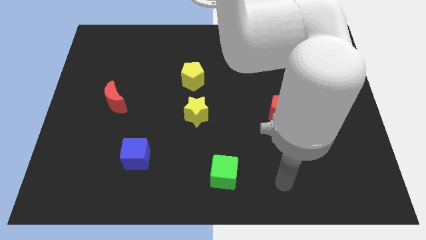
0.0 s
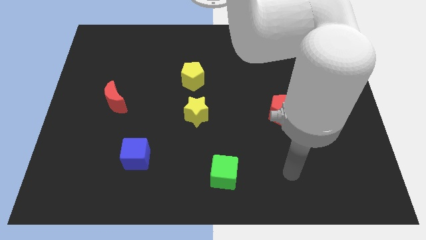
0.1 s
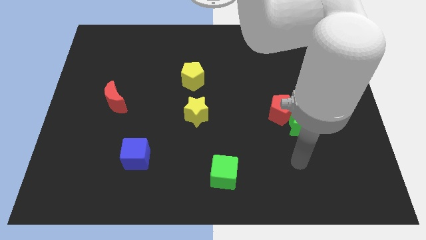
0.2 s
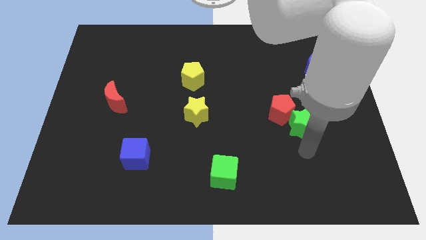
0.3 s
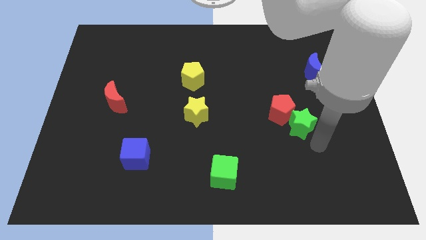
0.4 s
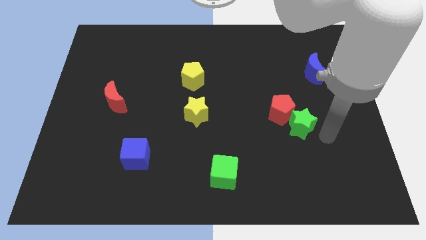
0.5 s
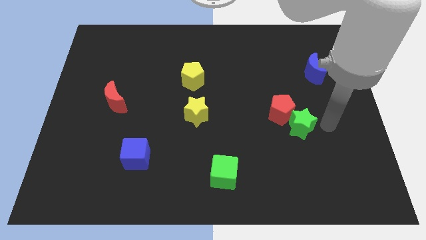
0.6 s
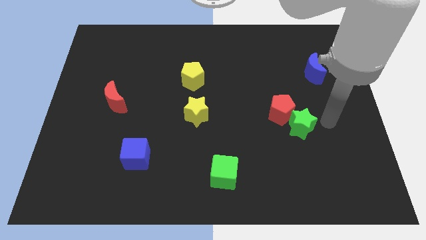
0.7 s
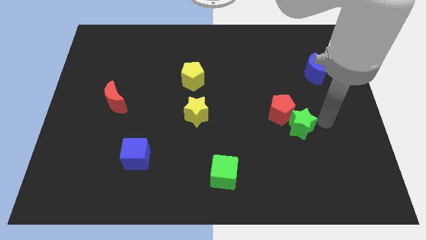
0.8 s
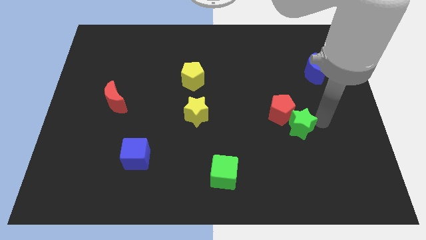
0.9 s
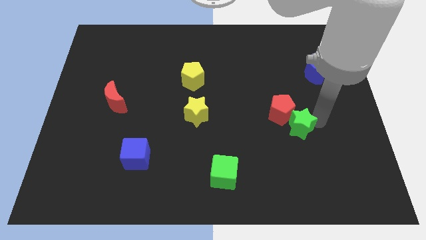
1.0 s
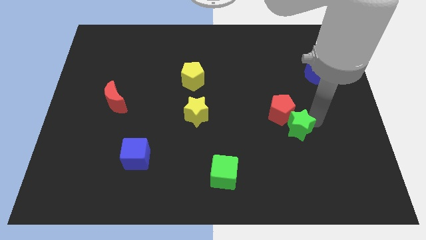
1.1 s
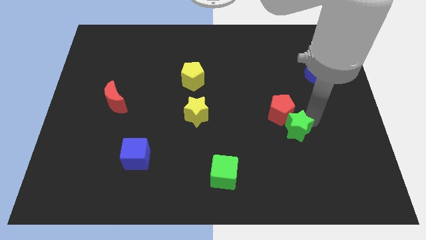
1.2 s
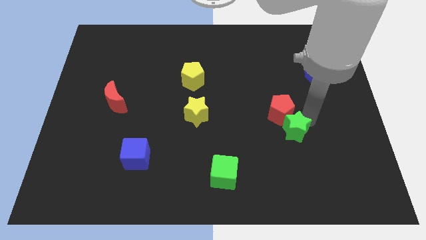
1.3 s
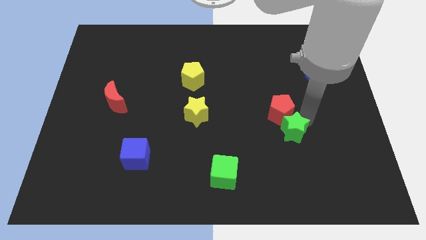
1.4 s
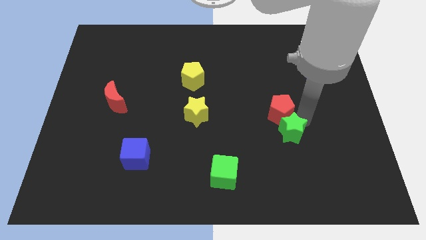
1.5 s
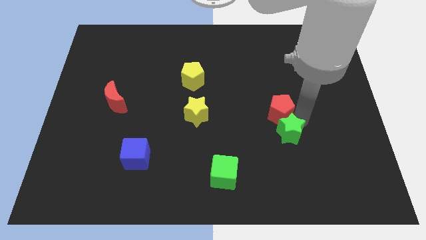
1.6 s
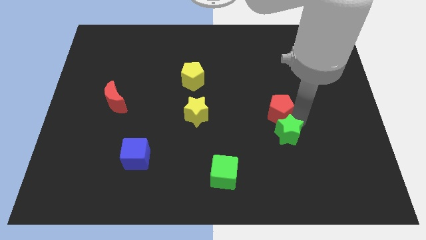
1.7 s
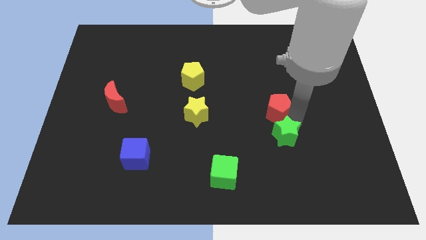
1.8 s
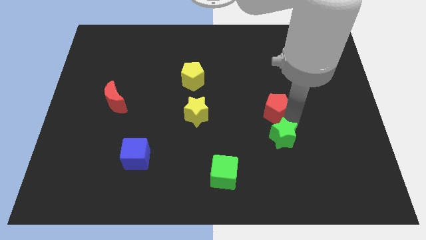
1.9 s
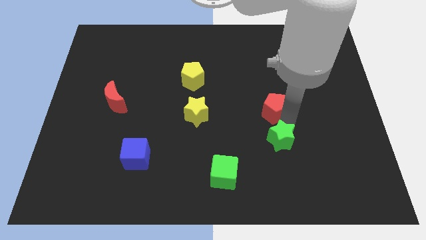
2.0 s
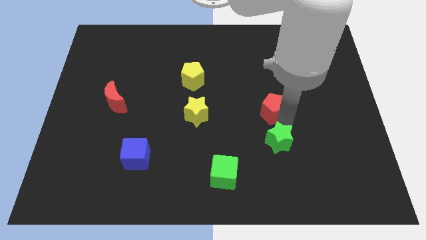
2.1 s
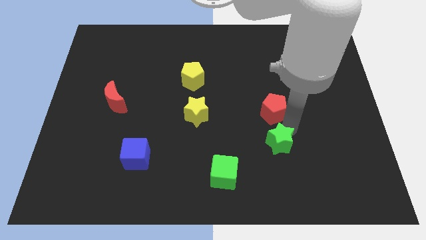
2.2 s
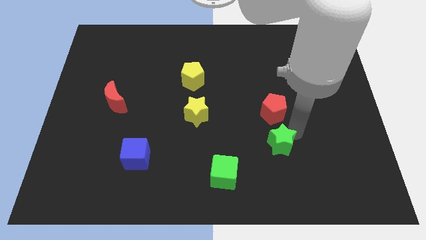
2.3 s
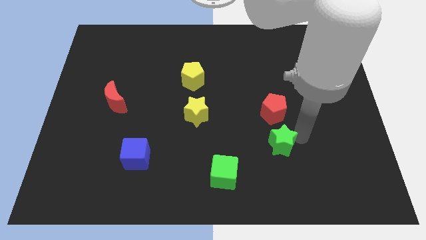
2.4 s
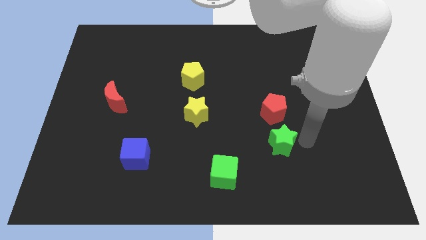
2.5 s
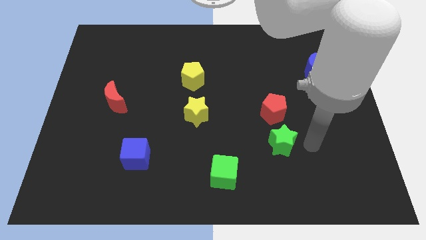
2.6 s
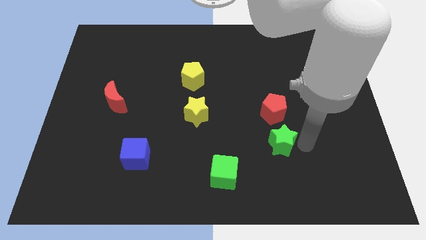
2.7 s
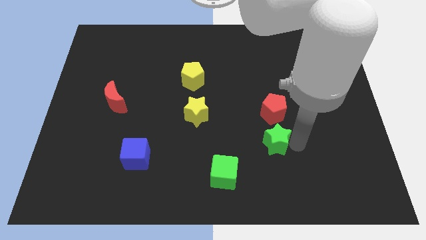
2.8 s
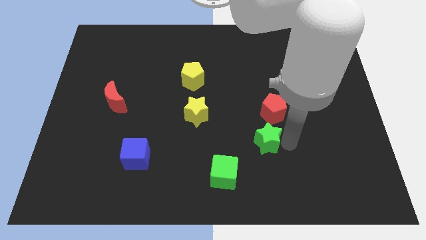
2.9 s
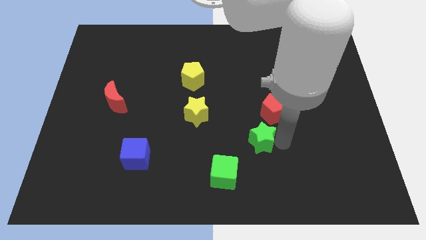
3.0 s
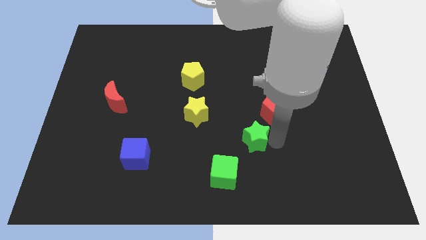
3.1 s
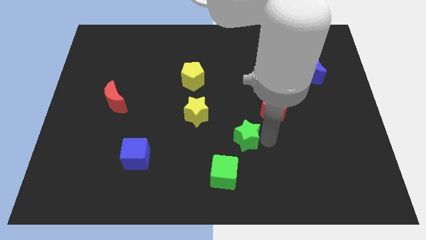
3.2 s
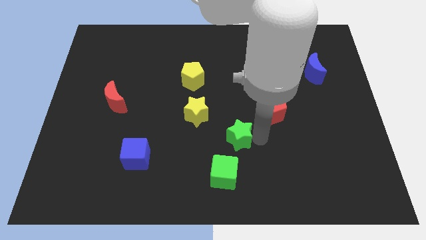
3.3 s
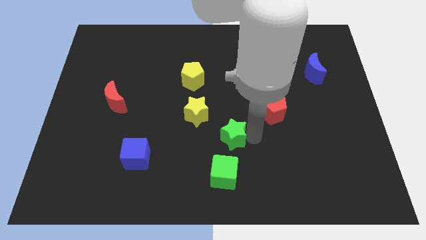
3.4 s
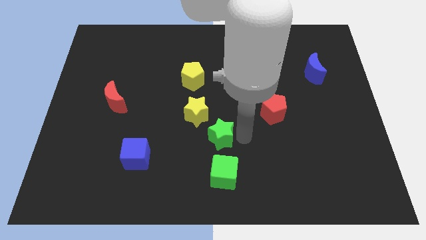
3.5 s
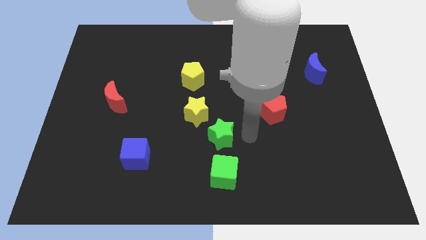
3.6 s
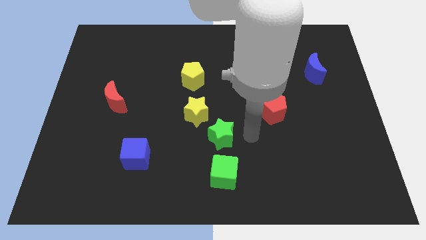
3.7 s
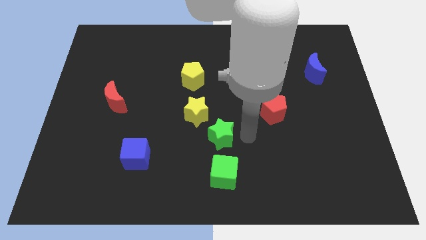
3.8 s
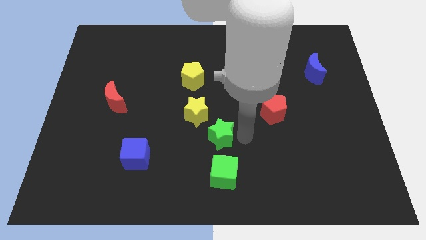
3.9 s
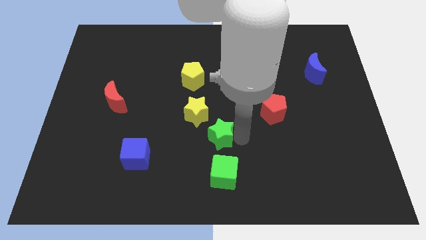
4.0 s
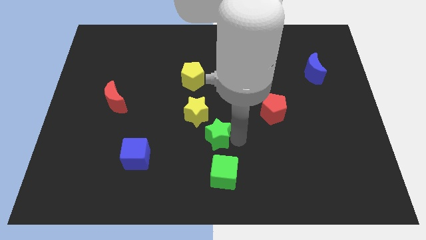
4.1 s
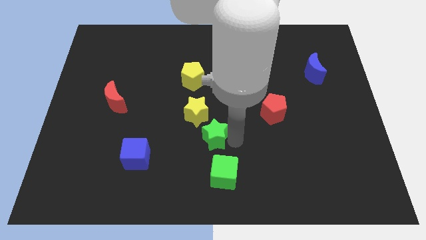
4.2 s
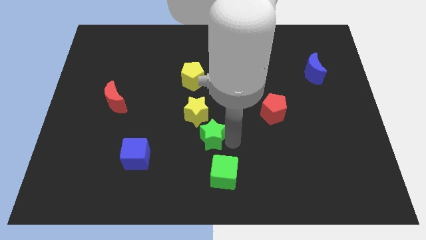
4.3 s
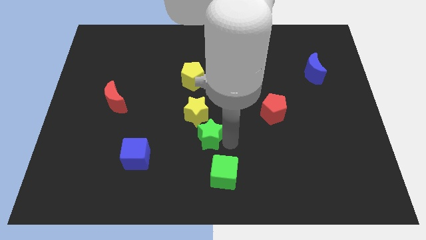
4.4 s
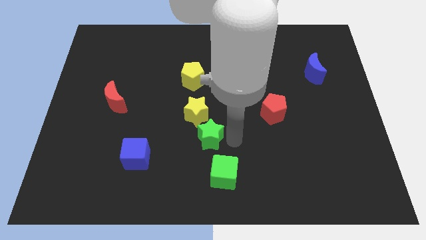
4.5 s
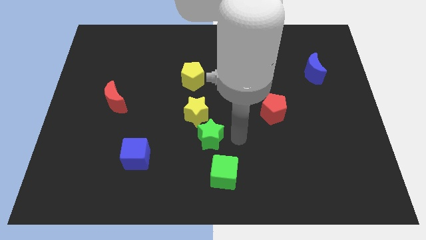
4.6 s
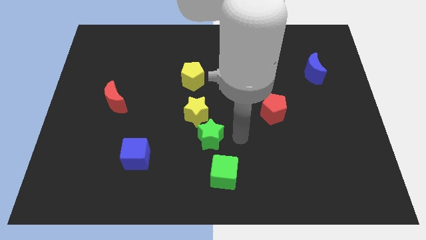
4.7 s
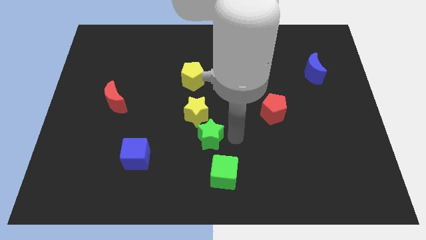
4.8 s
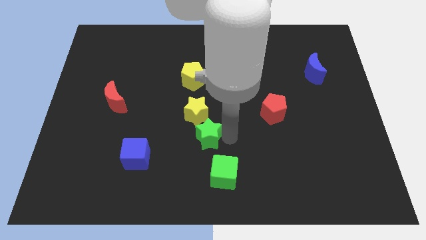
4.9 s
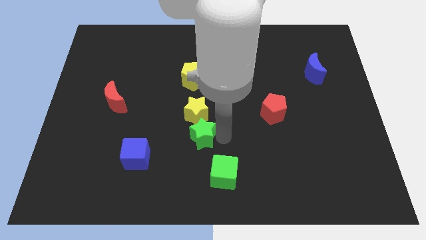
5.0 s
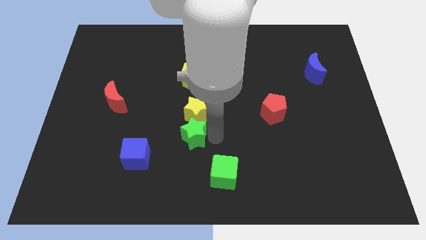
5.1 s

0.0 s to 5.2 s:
slide the green star to the bottom left of the yellow star

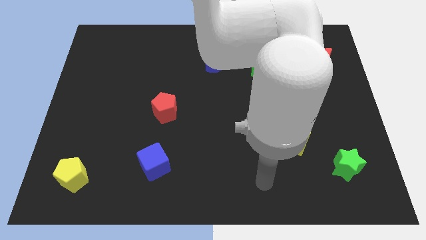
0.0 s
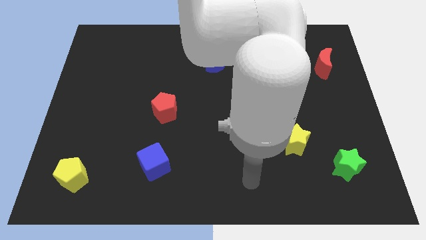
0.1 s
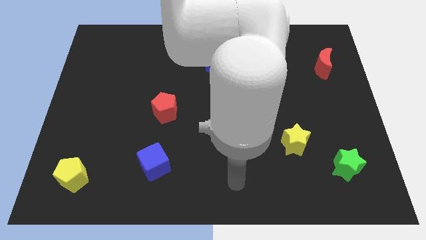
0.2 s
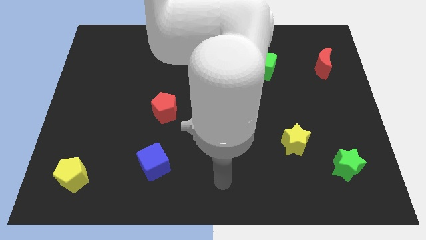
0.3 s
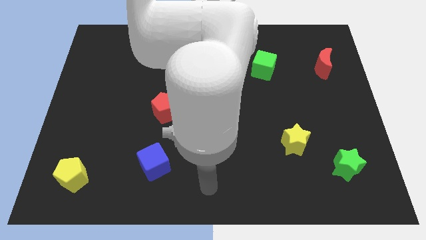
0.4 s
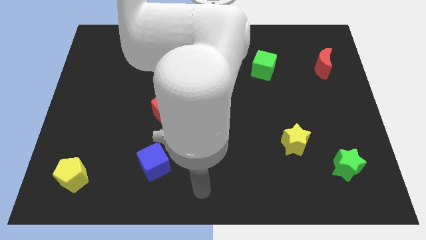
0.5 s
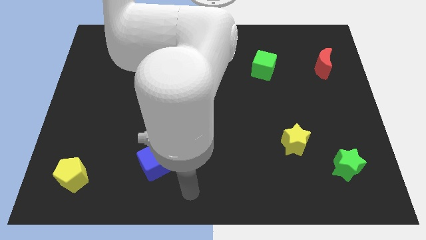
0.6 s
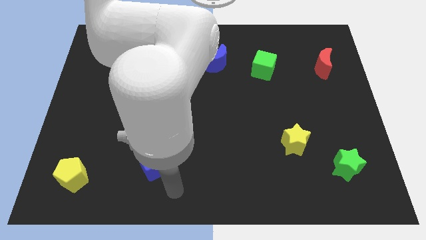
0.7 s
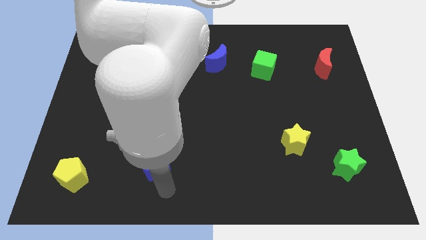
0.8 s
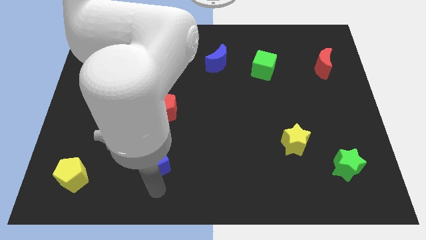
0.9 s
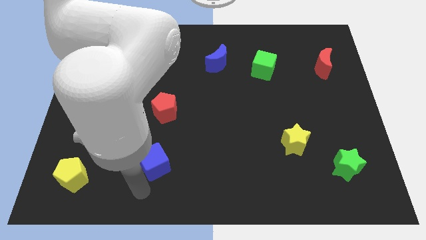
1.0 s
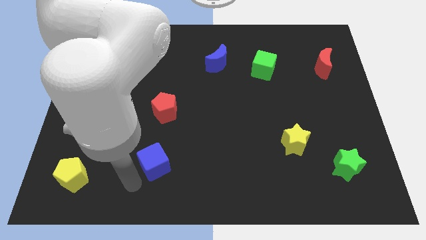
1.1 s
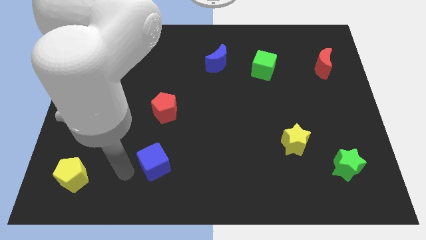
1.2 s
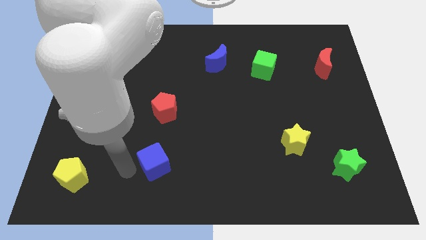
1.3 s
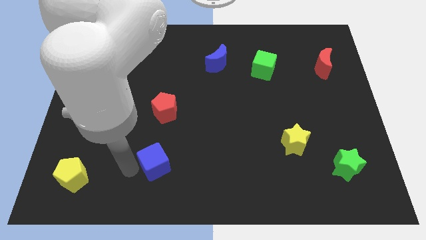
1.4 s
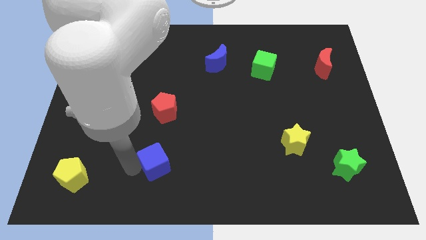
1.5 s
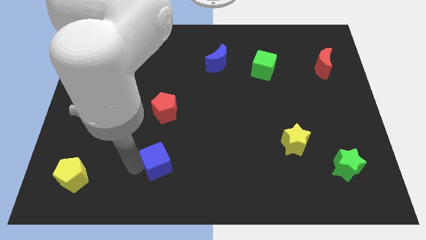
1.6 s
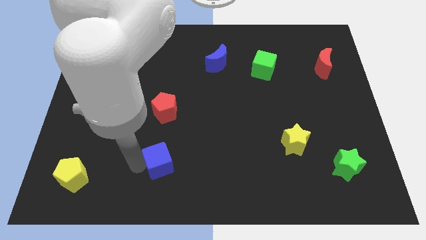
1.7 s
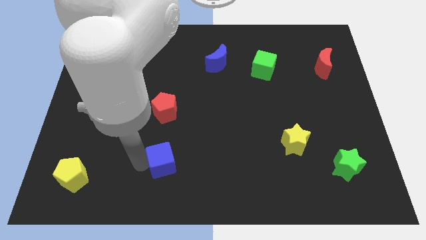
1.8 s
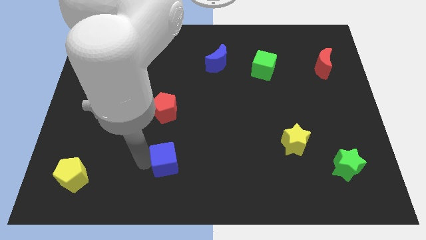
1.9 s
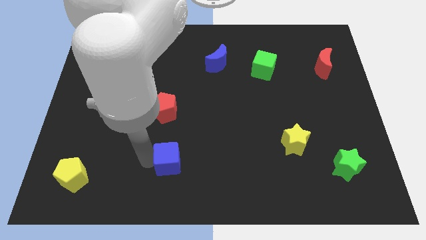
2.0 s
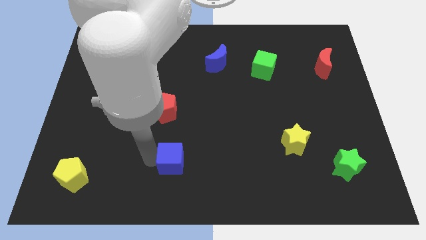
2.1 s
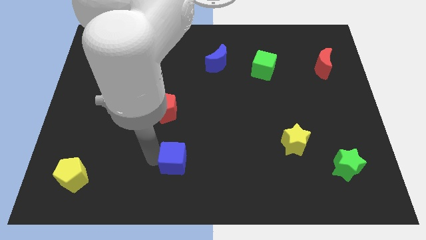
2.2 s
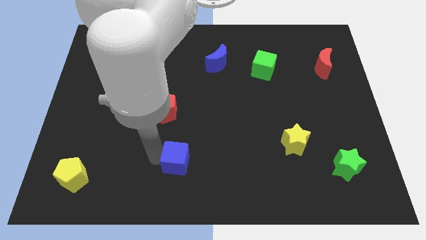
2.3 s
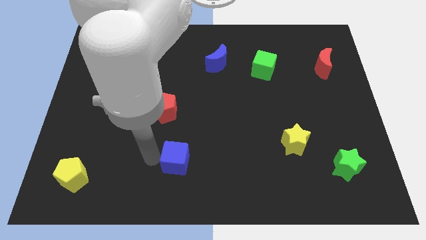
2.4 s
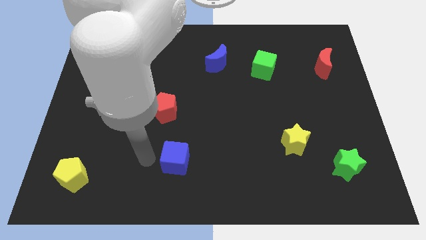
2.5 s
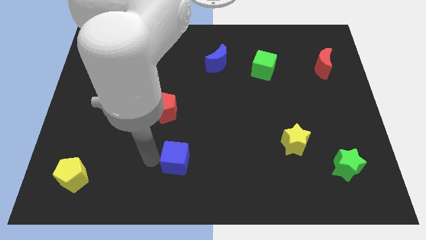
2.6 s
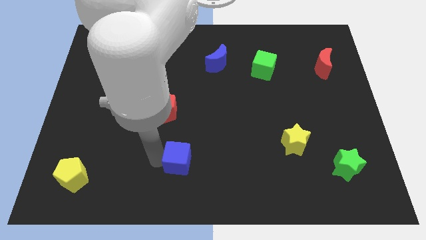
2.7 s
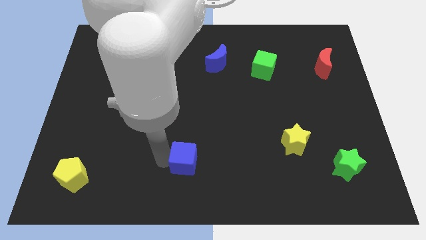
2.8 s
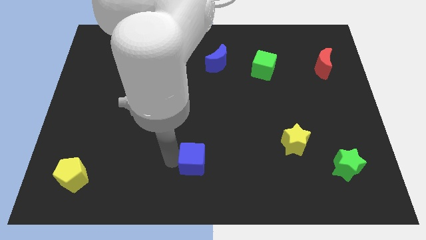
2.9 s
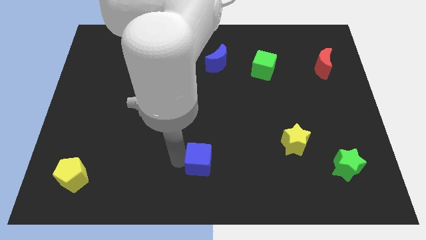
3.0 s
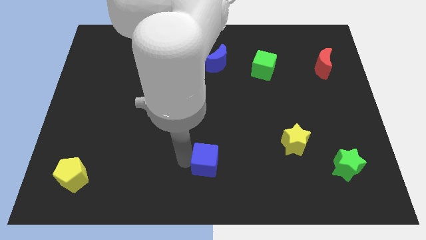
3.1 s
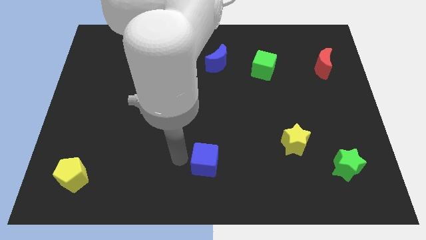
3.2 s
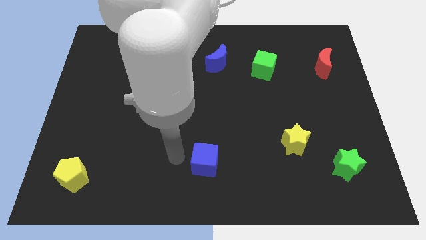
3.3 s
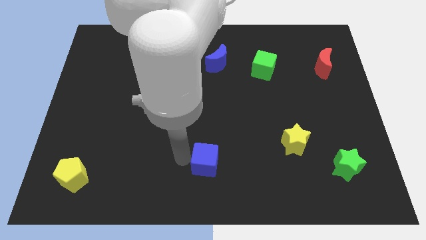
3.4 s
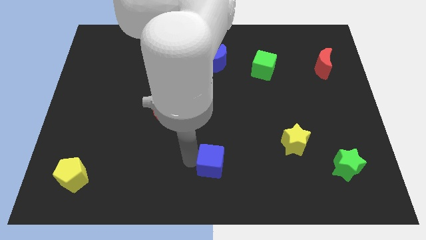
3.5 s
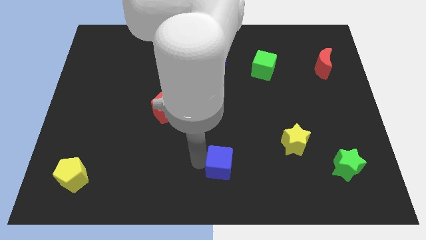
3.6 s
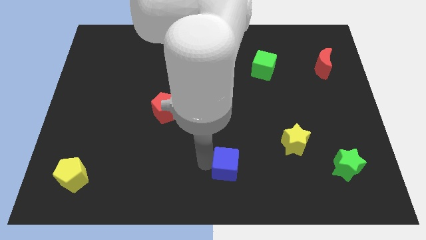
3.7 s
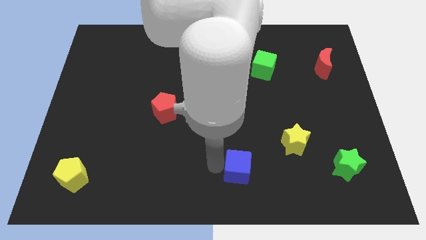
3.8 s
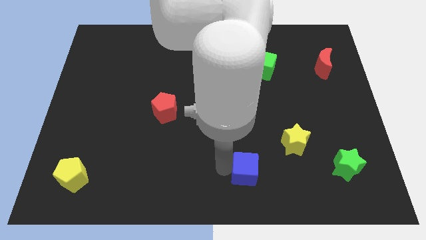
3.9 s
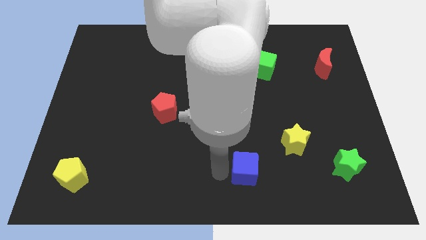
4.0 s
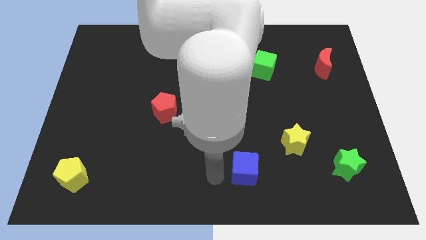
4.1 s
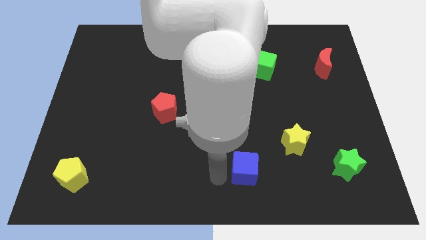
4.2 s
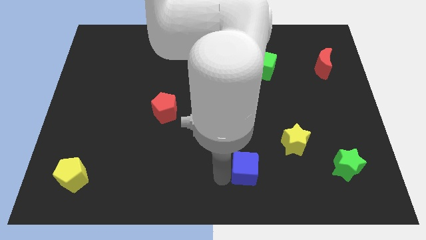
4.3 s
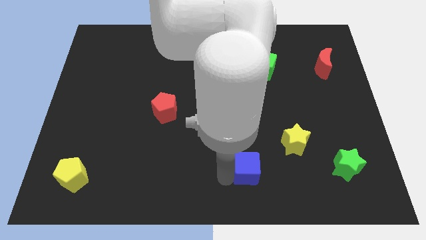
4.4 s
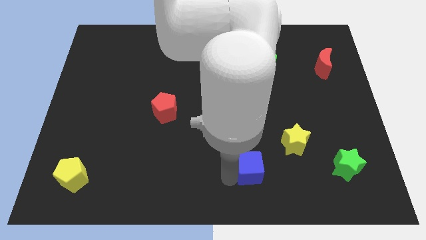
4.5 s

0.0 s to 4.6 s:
move the blue cube diagonally down and to the left of the yellow star
